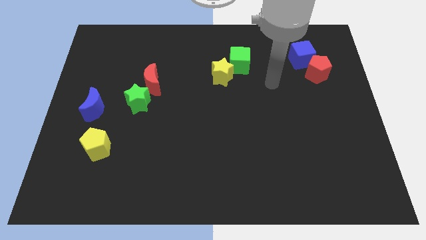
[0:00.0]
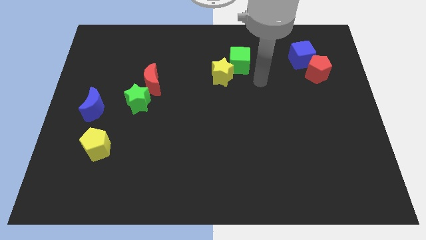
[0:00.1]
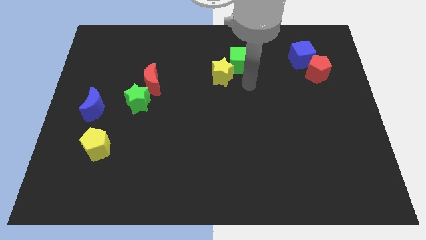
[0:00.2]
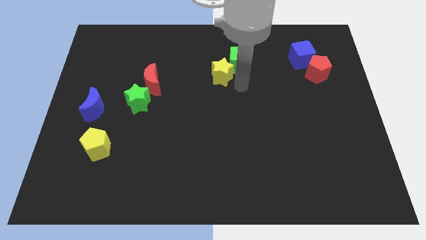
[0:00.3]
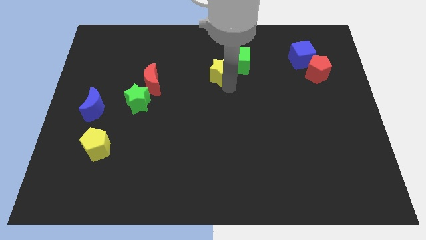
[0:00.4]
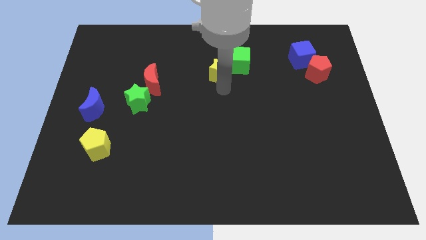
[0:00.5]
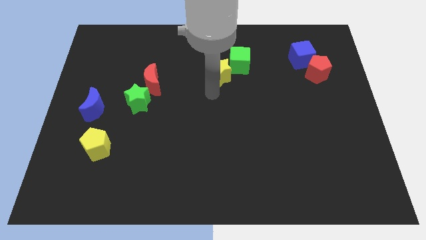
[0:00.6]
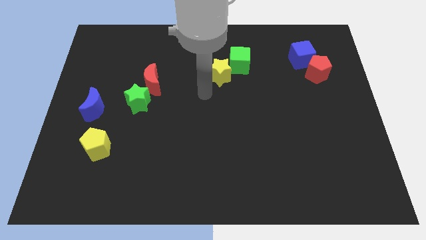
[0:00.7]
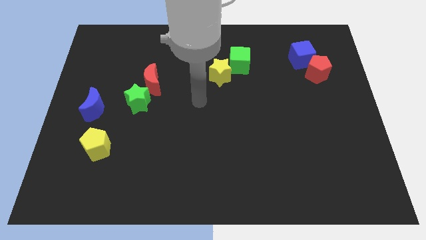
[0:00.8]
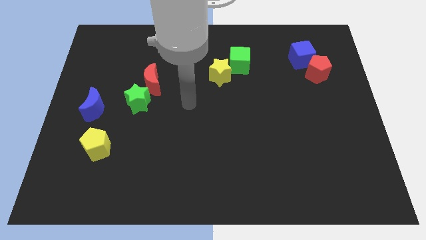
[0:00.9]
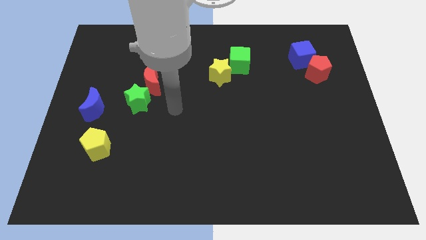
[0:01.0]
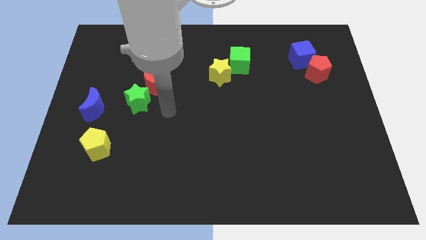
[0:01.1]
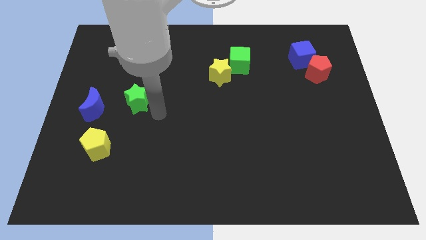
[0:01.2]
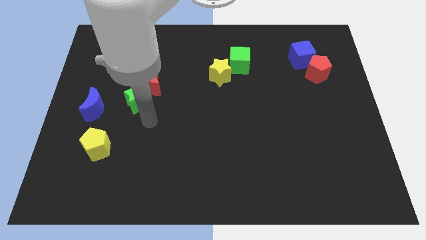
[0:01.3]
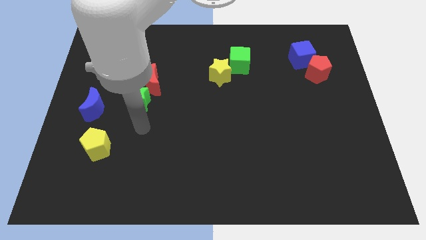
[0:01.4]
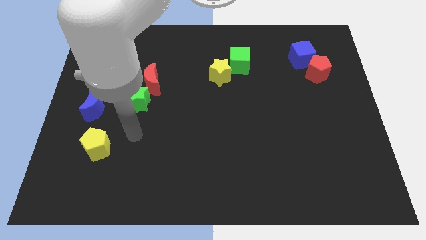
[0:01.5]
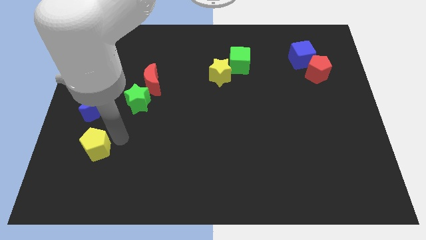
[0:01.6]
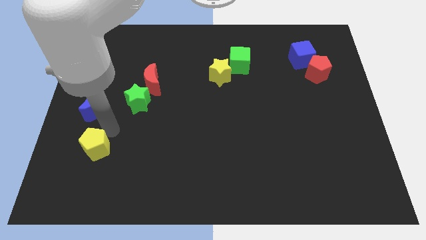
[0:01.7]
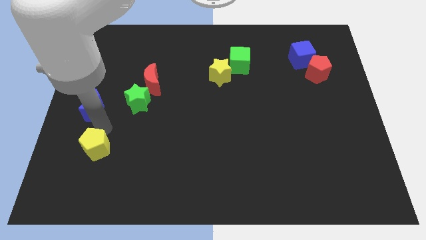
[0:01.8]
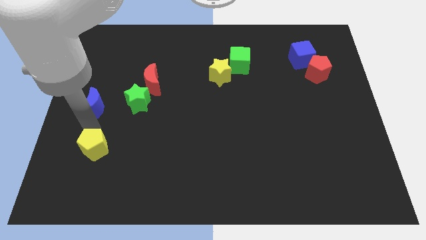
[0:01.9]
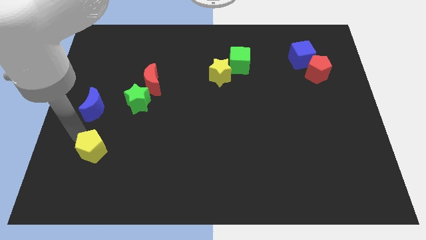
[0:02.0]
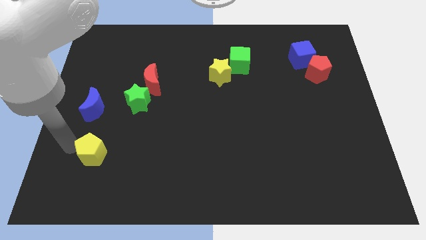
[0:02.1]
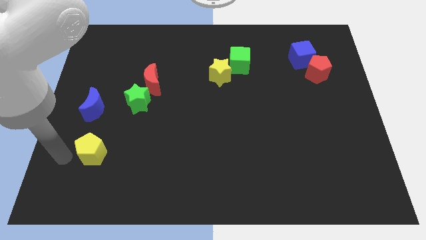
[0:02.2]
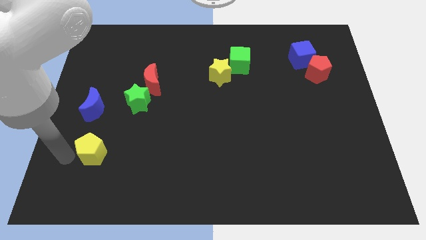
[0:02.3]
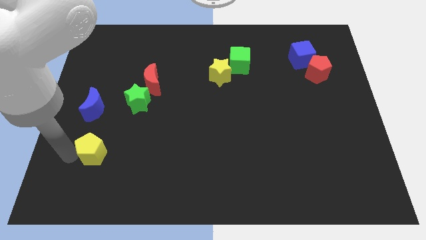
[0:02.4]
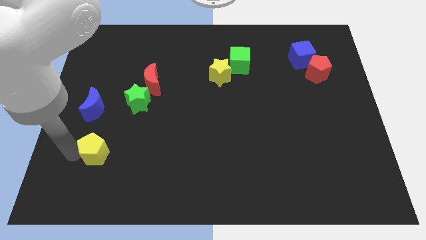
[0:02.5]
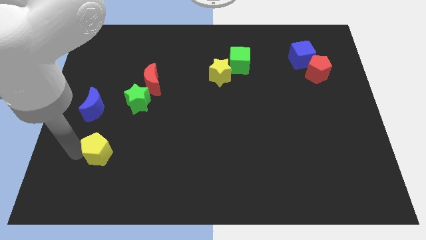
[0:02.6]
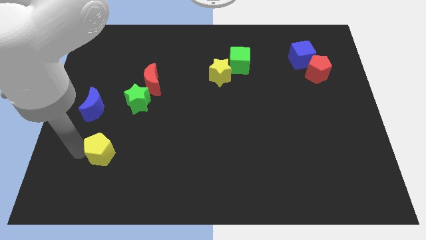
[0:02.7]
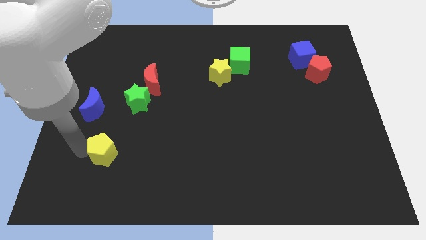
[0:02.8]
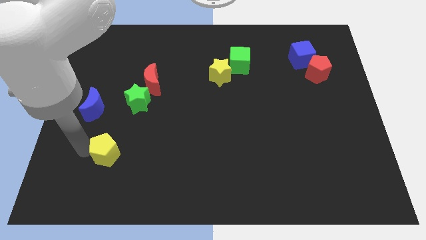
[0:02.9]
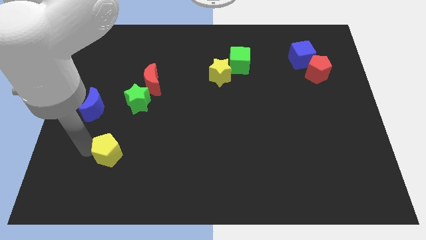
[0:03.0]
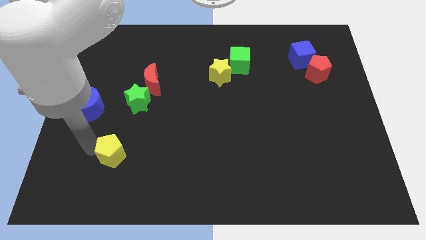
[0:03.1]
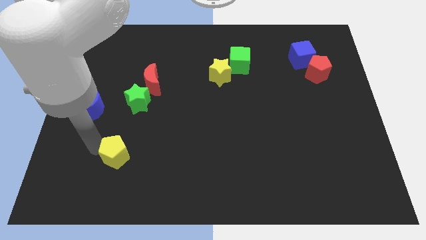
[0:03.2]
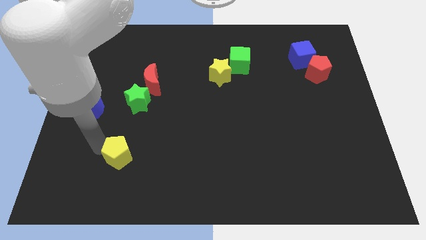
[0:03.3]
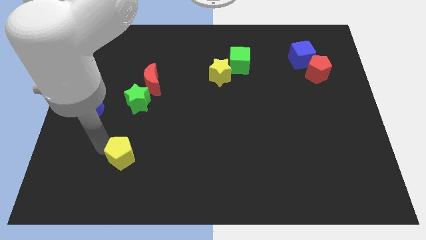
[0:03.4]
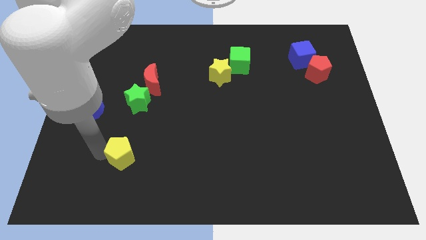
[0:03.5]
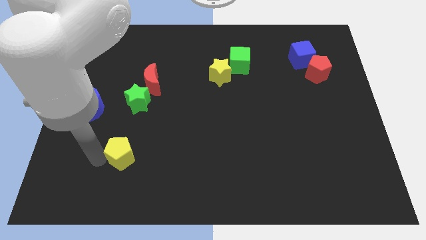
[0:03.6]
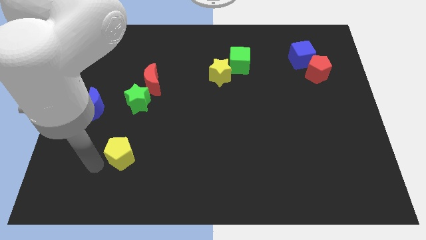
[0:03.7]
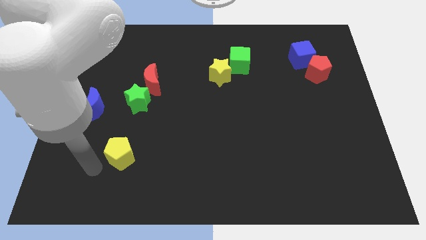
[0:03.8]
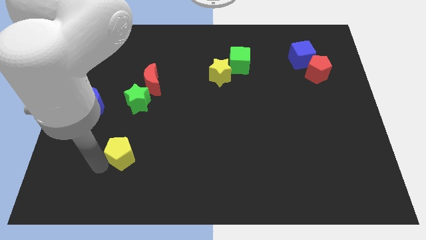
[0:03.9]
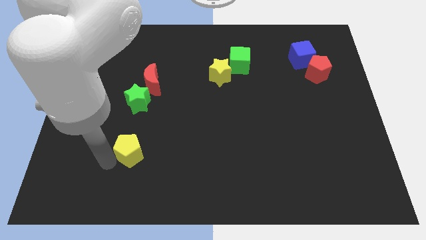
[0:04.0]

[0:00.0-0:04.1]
move the yellow pentagon a bit to the right

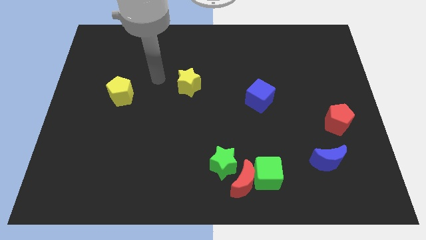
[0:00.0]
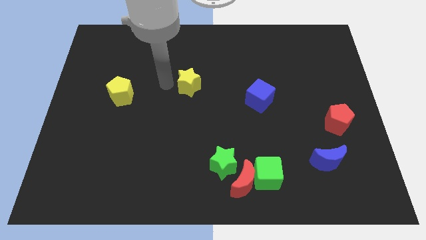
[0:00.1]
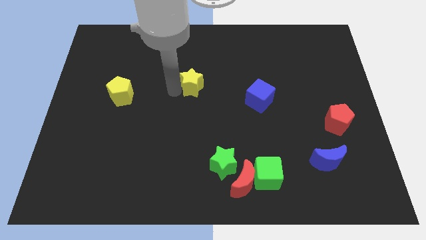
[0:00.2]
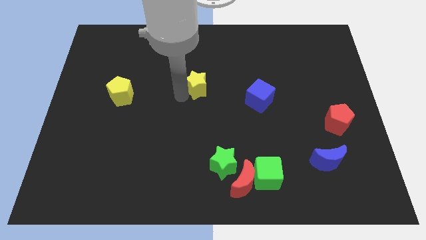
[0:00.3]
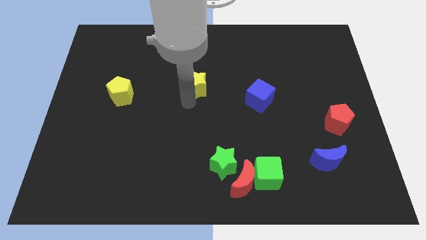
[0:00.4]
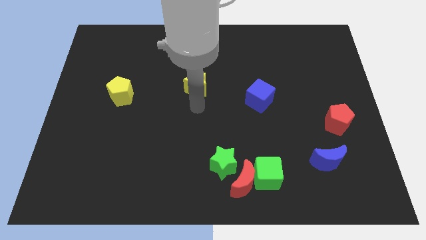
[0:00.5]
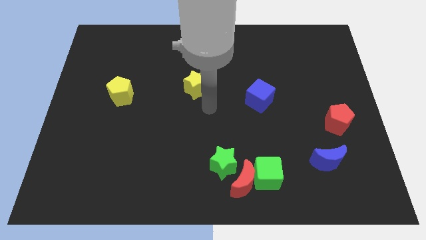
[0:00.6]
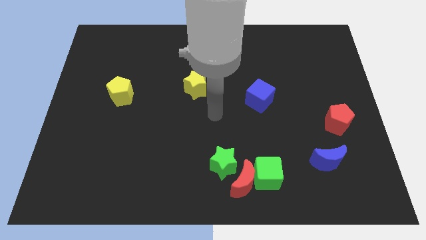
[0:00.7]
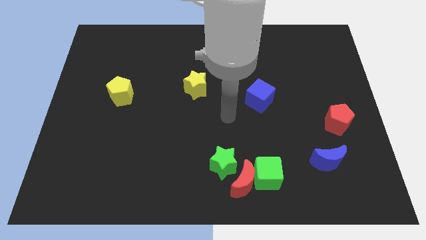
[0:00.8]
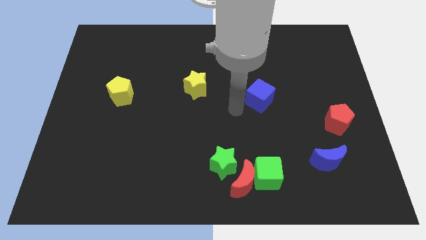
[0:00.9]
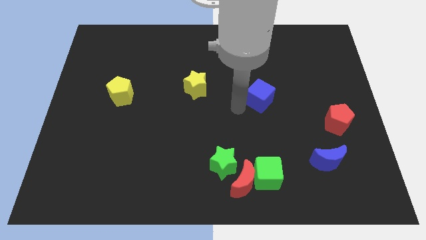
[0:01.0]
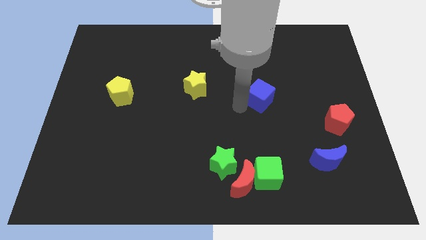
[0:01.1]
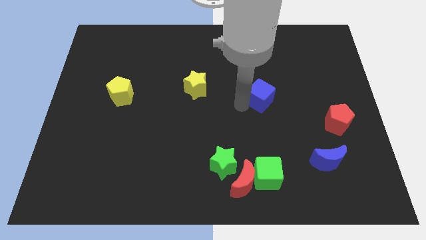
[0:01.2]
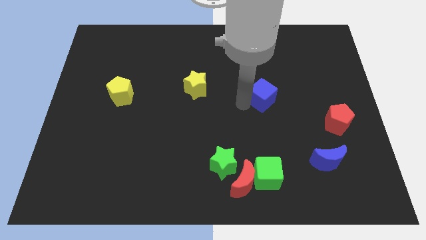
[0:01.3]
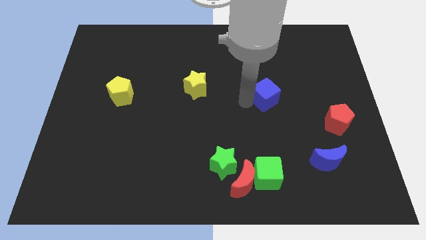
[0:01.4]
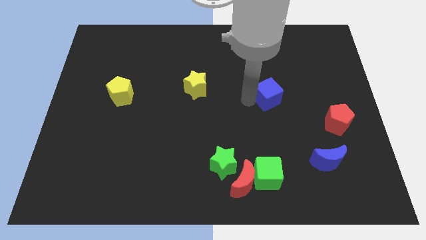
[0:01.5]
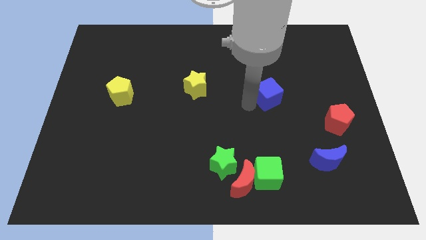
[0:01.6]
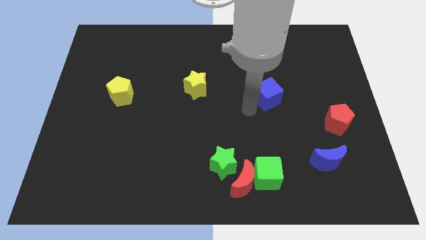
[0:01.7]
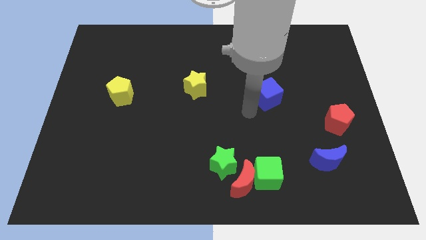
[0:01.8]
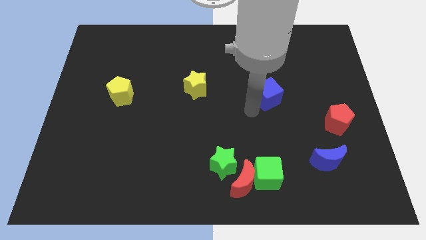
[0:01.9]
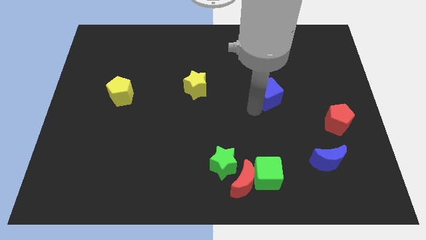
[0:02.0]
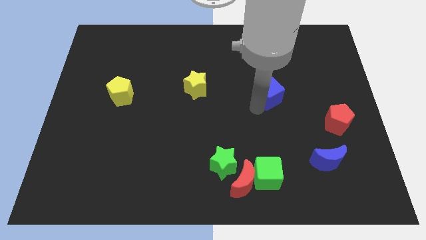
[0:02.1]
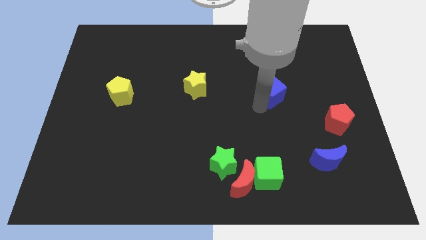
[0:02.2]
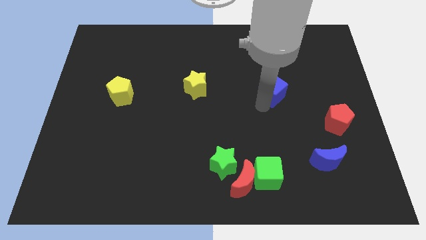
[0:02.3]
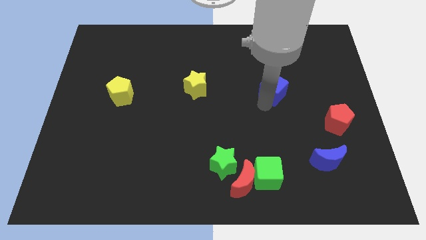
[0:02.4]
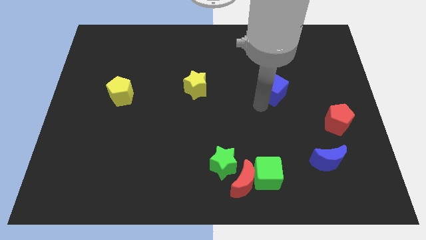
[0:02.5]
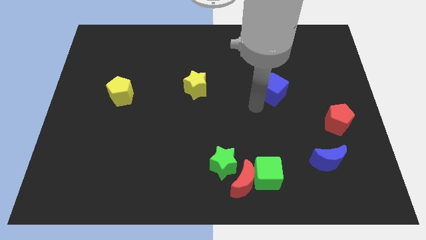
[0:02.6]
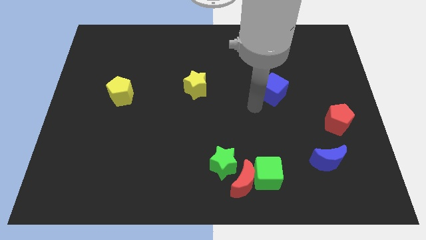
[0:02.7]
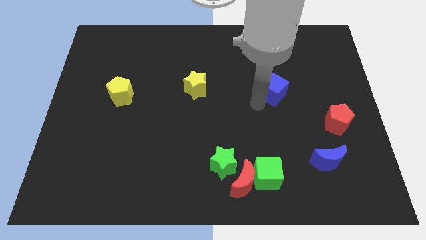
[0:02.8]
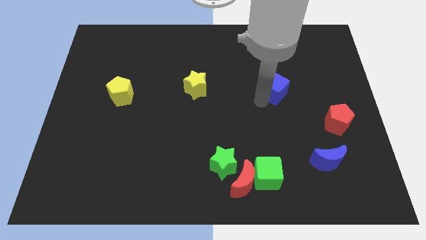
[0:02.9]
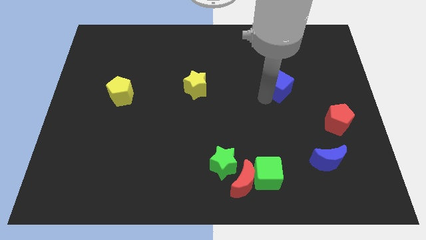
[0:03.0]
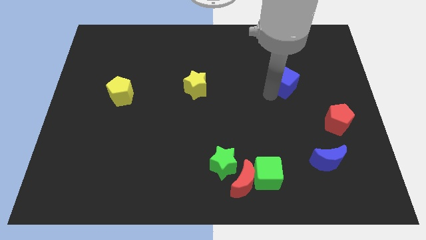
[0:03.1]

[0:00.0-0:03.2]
slightly push the blue cube upwards and right diagonally

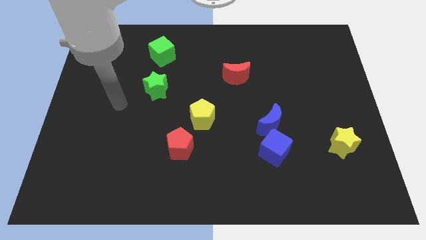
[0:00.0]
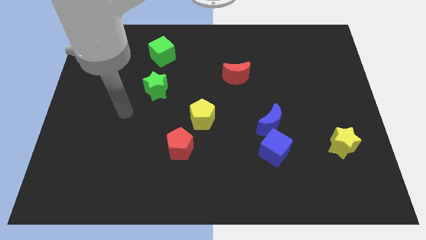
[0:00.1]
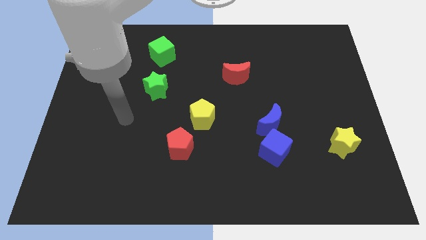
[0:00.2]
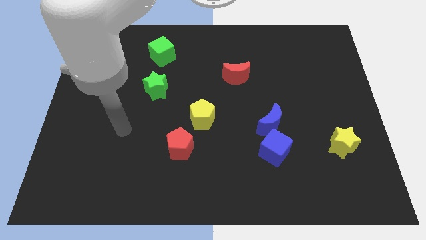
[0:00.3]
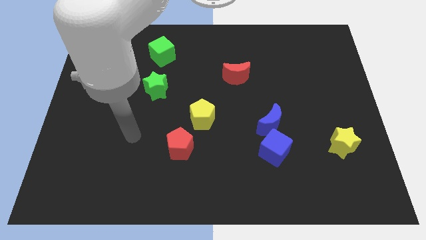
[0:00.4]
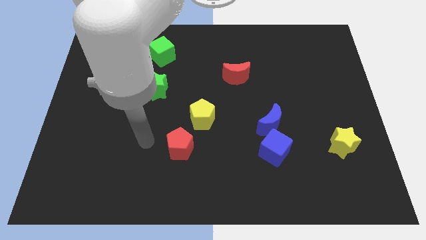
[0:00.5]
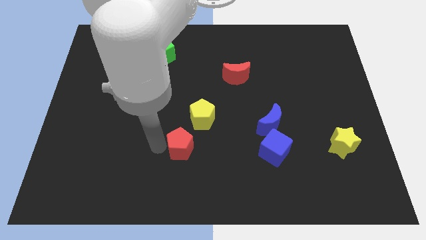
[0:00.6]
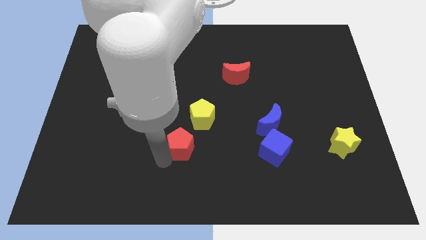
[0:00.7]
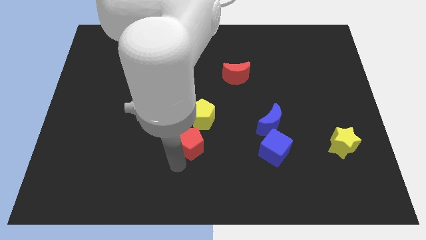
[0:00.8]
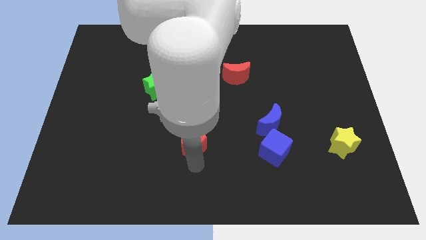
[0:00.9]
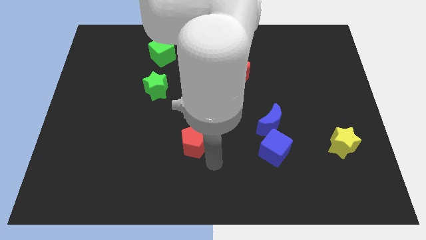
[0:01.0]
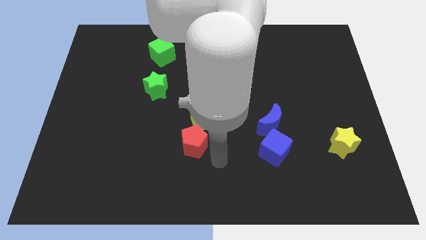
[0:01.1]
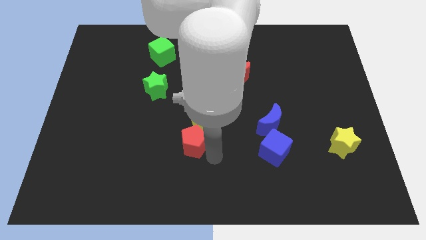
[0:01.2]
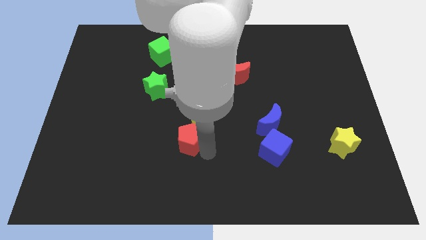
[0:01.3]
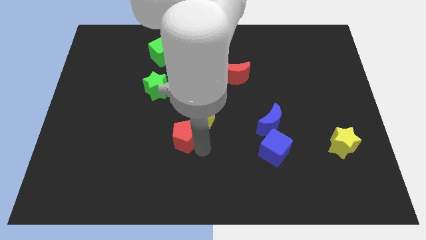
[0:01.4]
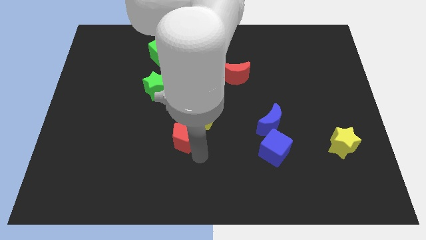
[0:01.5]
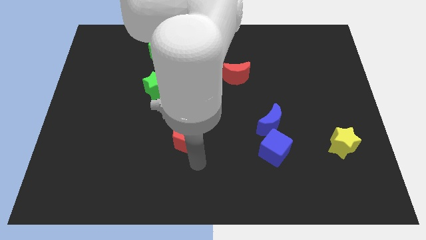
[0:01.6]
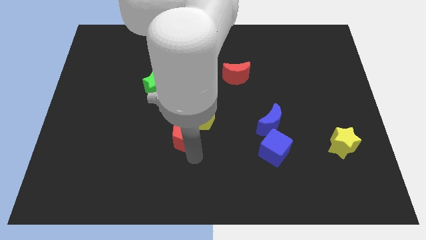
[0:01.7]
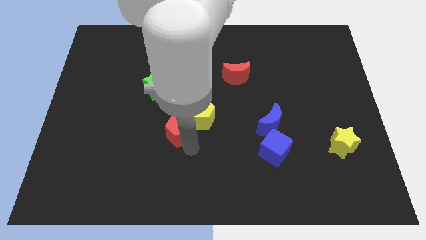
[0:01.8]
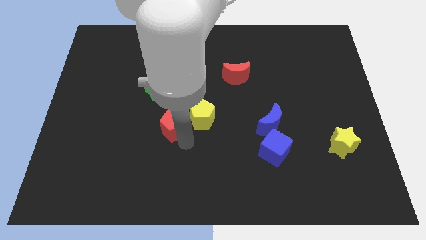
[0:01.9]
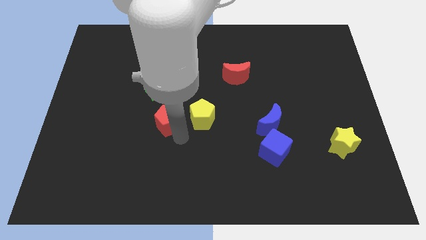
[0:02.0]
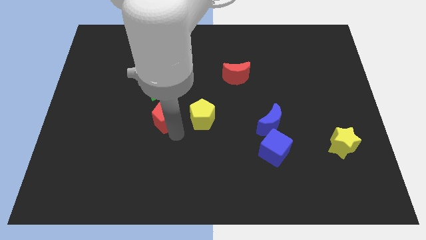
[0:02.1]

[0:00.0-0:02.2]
slightly slide the red pentagon up
